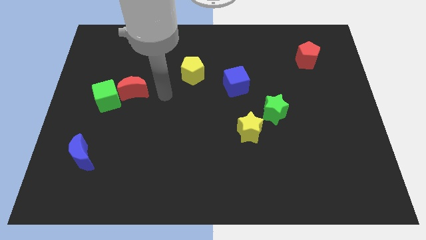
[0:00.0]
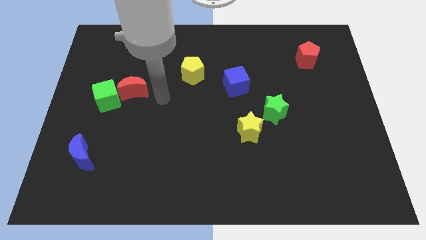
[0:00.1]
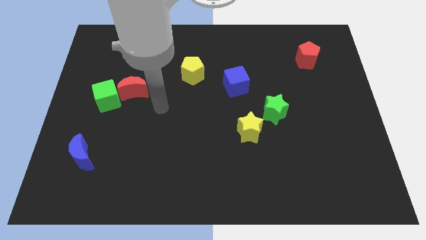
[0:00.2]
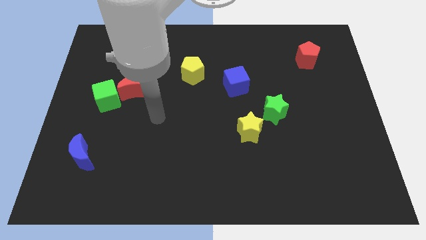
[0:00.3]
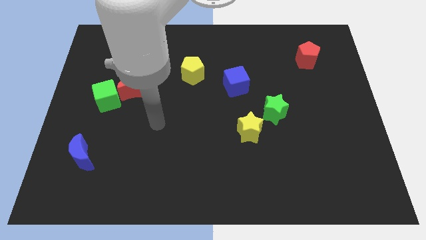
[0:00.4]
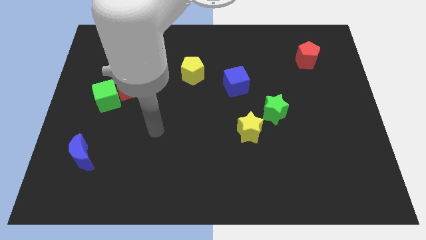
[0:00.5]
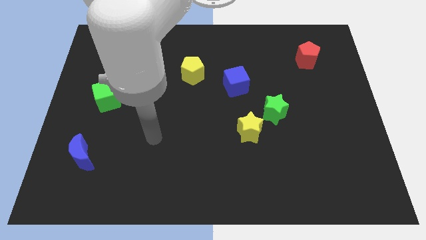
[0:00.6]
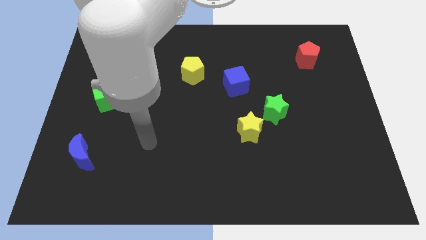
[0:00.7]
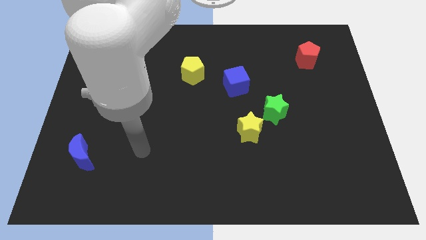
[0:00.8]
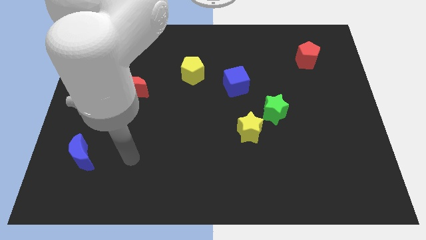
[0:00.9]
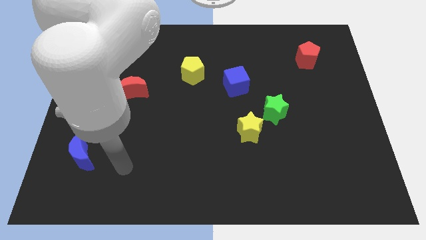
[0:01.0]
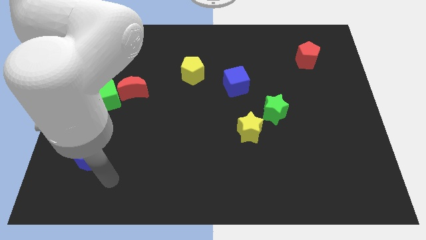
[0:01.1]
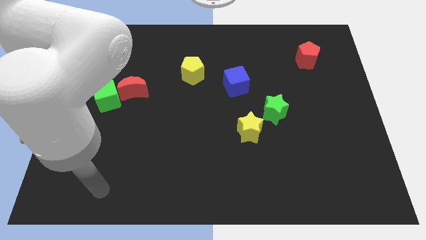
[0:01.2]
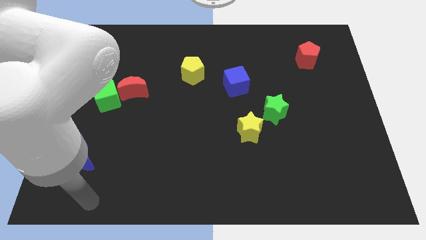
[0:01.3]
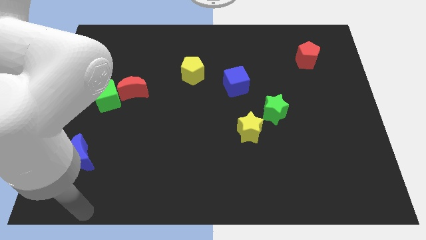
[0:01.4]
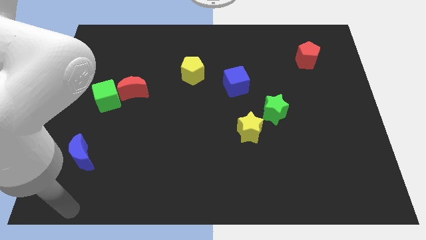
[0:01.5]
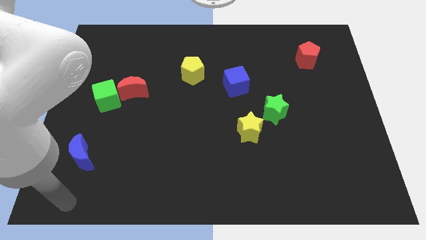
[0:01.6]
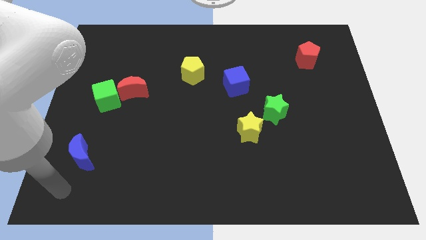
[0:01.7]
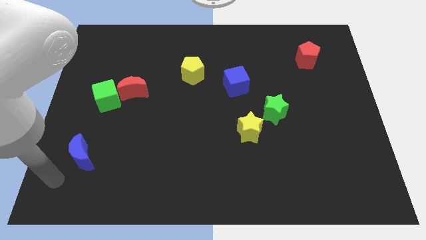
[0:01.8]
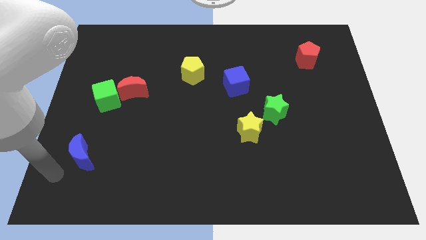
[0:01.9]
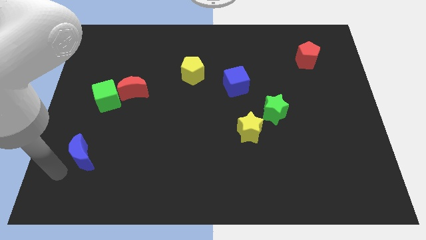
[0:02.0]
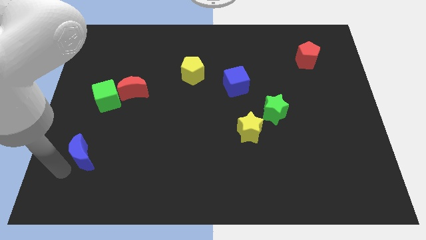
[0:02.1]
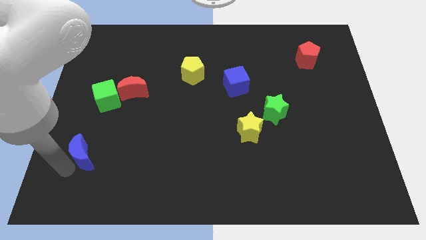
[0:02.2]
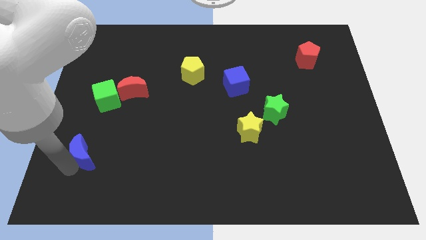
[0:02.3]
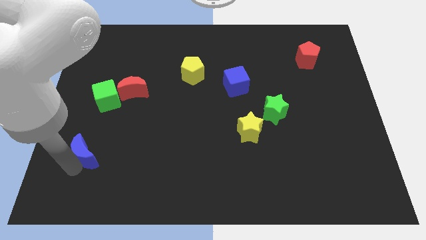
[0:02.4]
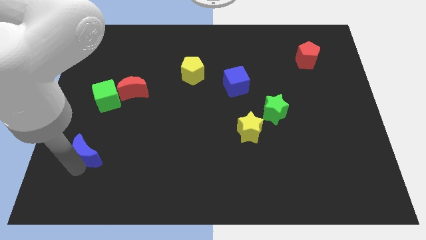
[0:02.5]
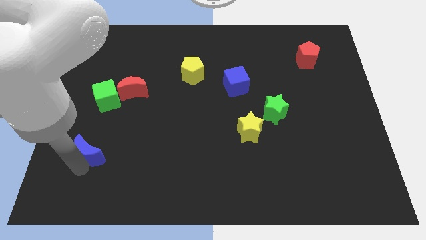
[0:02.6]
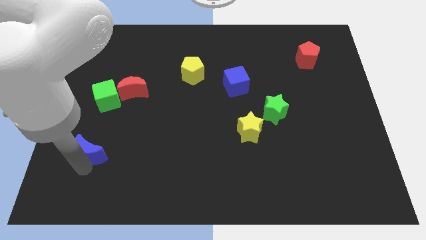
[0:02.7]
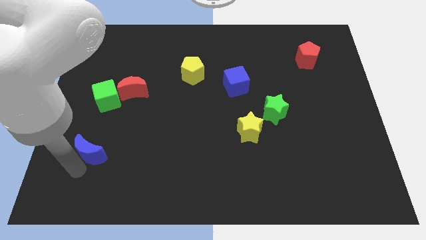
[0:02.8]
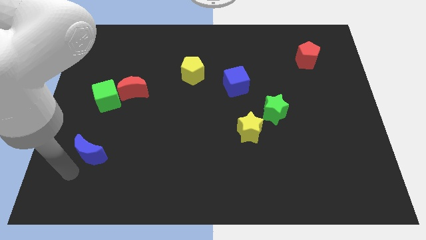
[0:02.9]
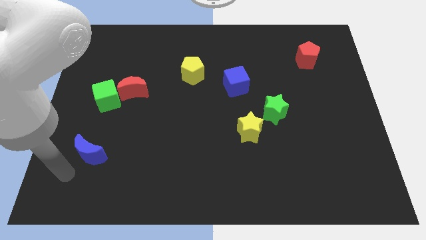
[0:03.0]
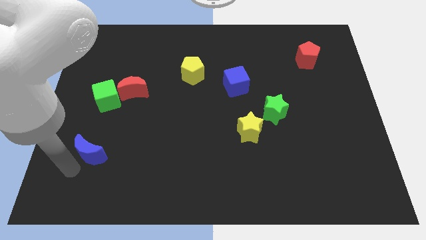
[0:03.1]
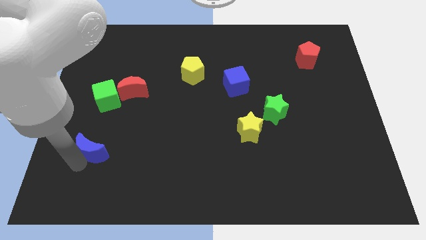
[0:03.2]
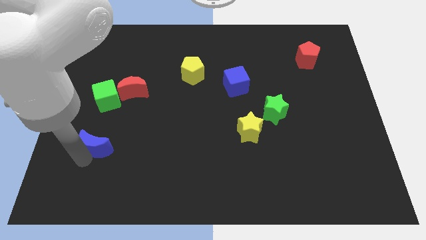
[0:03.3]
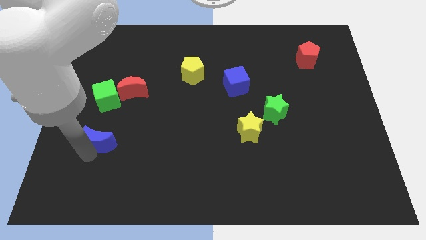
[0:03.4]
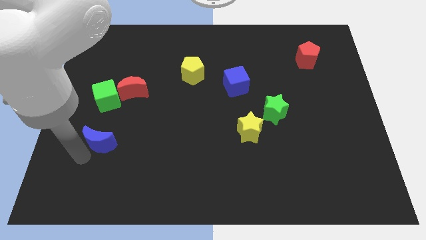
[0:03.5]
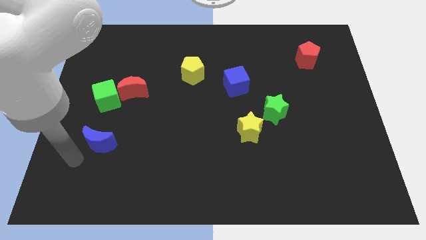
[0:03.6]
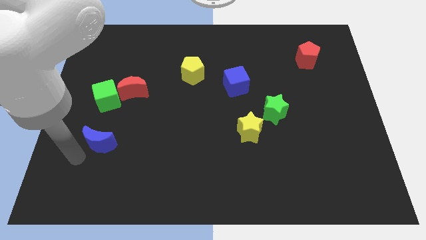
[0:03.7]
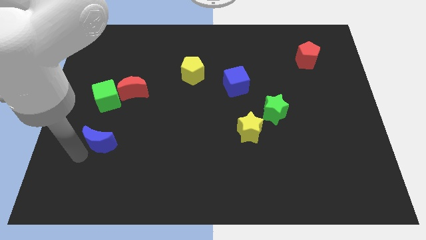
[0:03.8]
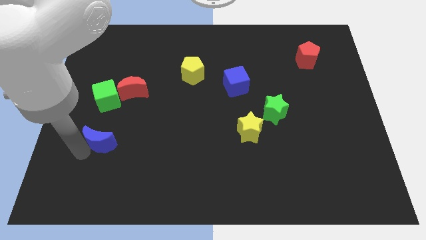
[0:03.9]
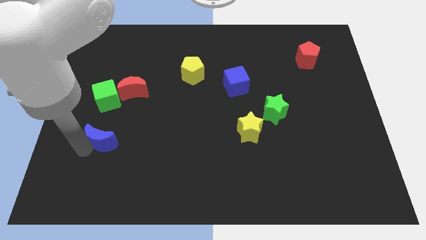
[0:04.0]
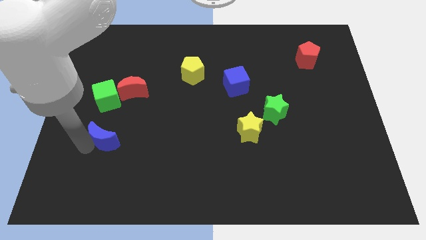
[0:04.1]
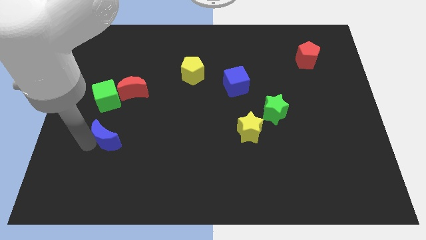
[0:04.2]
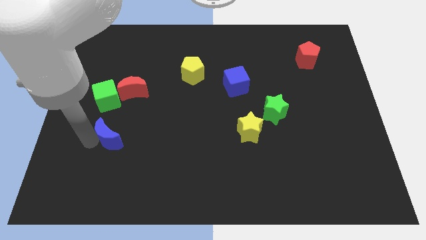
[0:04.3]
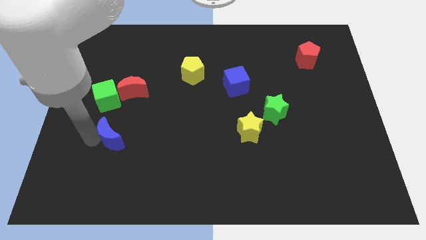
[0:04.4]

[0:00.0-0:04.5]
move the blue moon a little upwards and then to the right

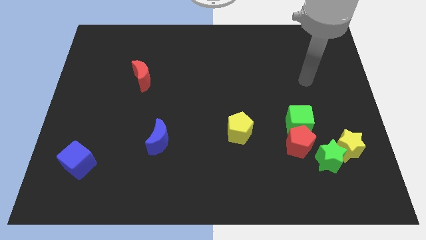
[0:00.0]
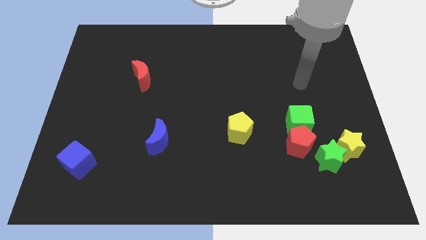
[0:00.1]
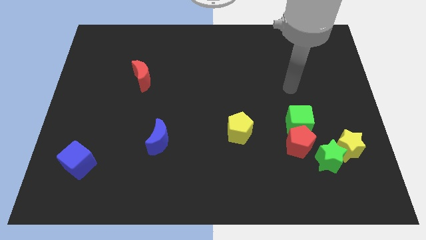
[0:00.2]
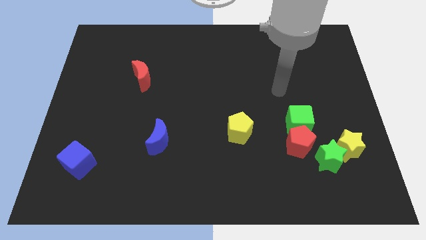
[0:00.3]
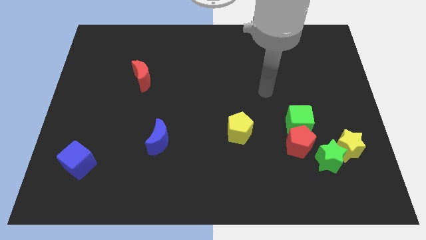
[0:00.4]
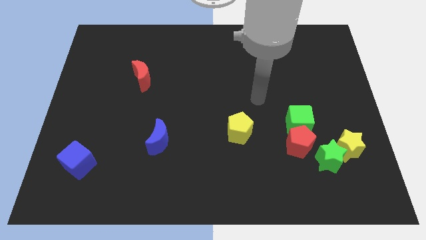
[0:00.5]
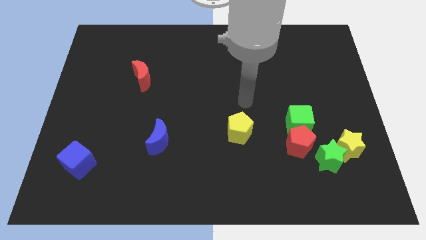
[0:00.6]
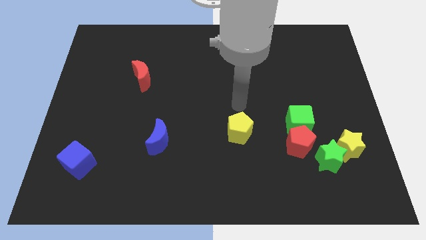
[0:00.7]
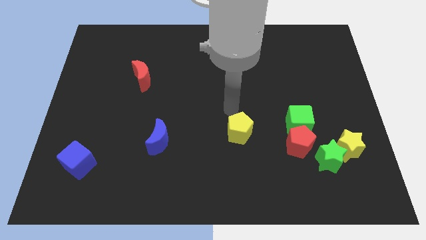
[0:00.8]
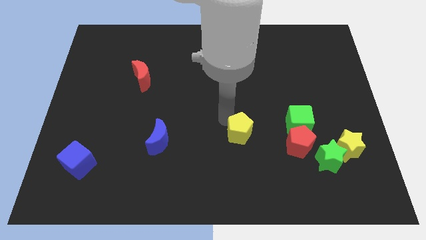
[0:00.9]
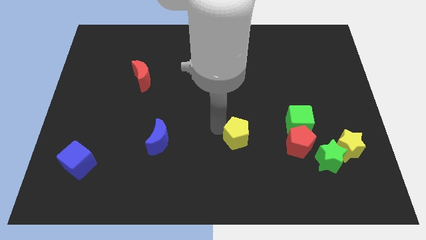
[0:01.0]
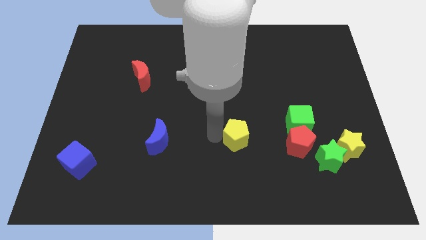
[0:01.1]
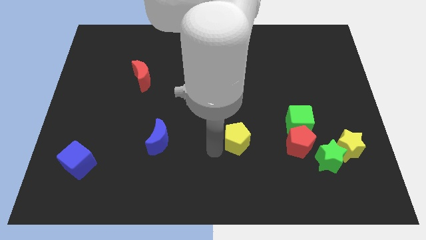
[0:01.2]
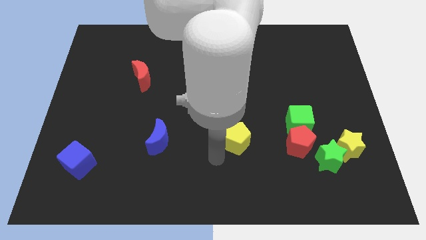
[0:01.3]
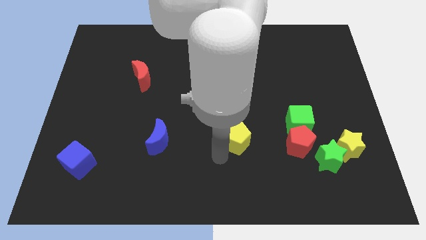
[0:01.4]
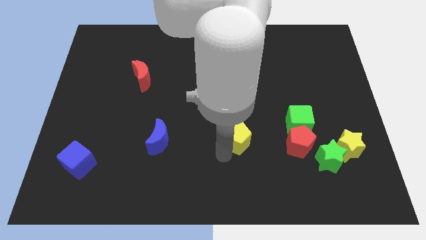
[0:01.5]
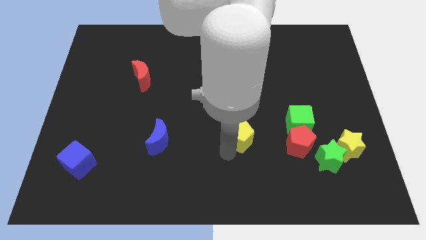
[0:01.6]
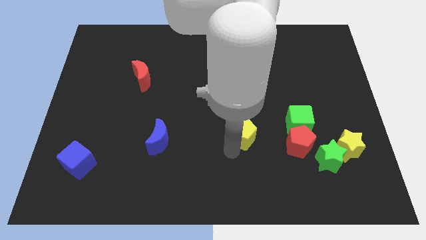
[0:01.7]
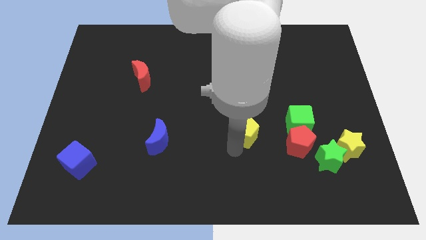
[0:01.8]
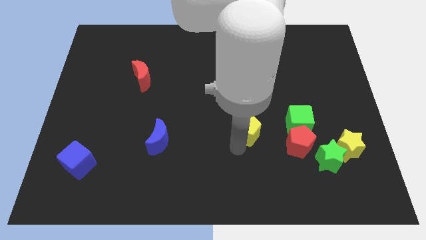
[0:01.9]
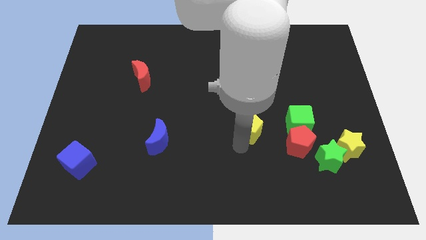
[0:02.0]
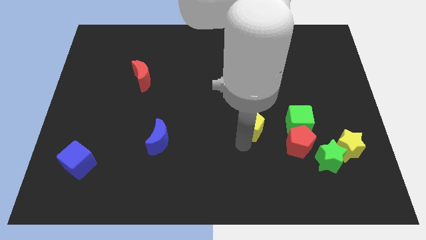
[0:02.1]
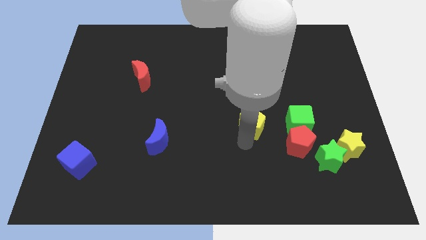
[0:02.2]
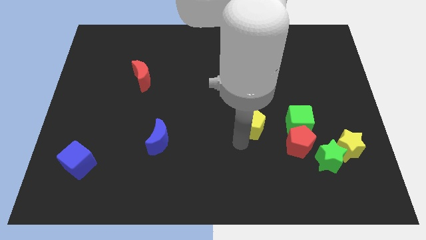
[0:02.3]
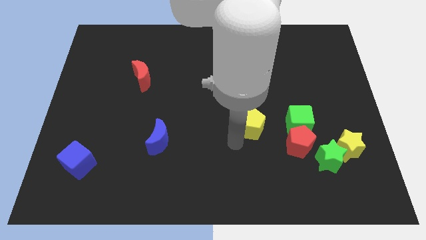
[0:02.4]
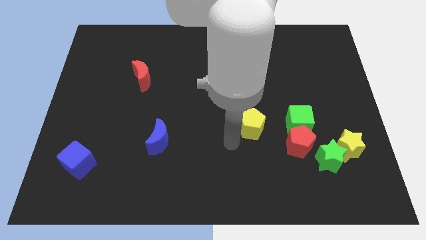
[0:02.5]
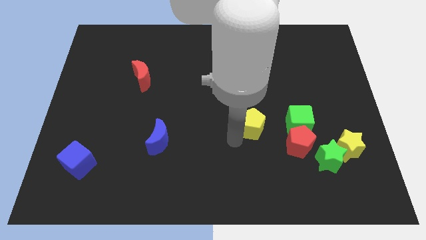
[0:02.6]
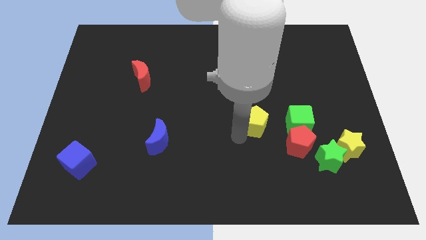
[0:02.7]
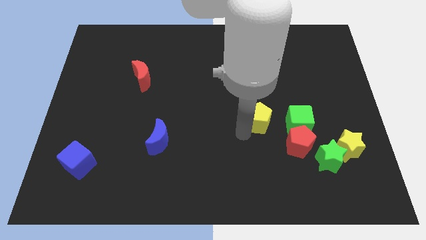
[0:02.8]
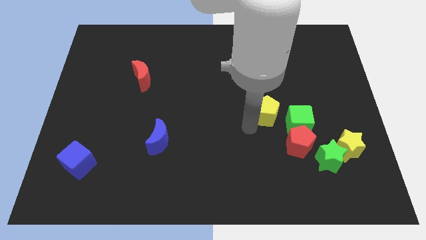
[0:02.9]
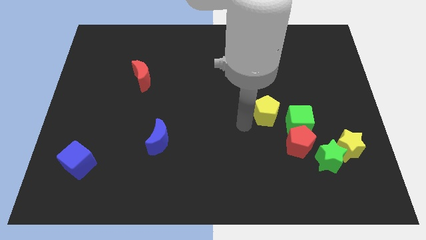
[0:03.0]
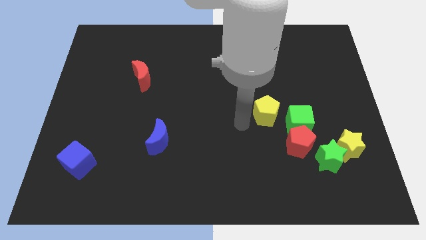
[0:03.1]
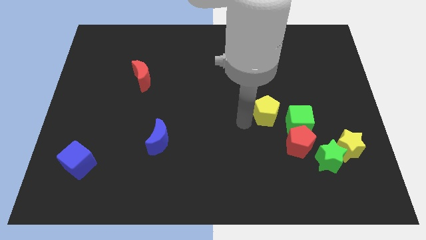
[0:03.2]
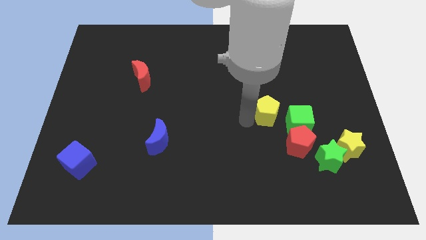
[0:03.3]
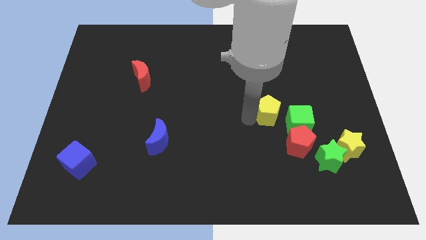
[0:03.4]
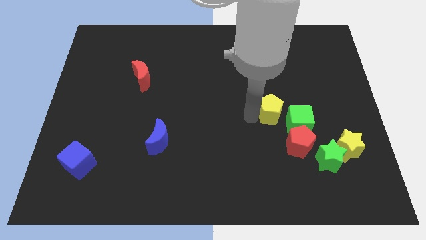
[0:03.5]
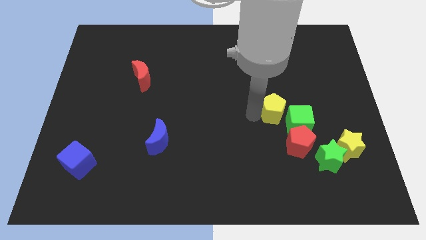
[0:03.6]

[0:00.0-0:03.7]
push the yellow pentagon to the right slightly
